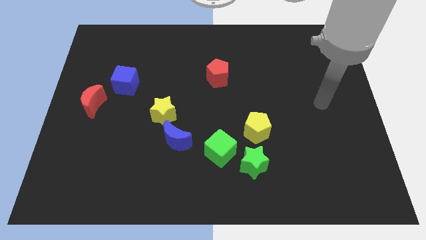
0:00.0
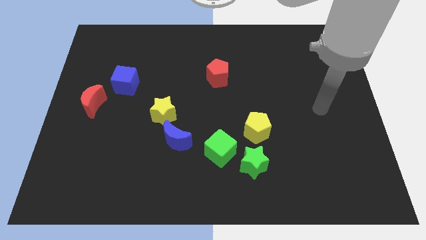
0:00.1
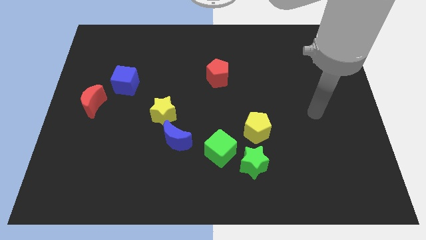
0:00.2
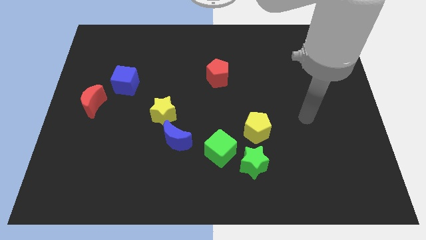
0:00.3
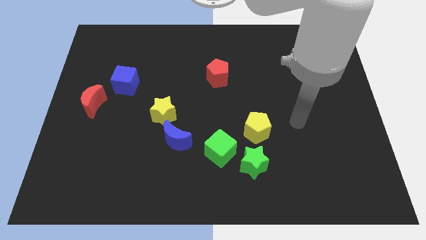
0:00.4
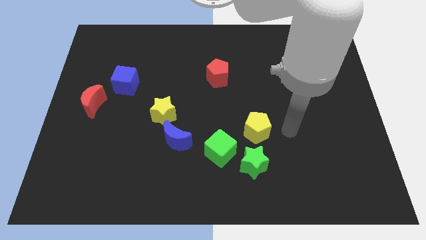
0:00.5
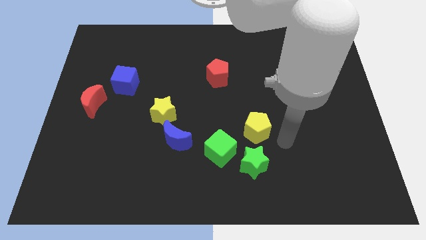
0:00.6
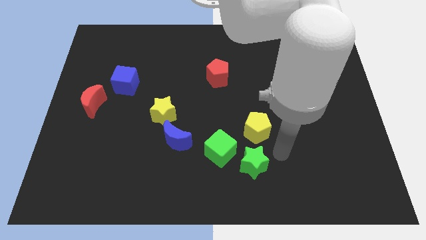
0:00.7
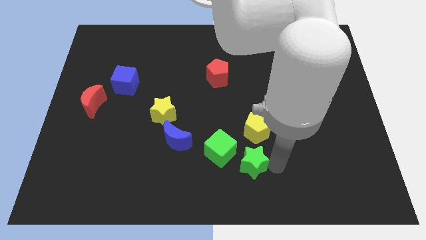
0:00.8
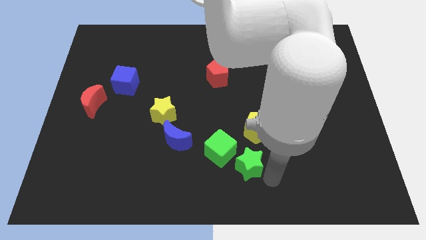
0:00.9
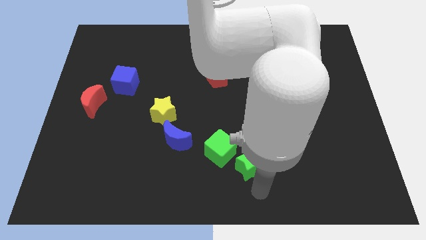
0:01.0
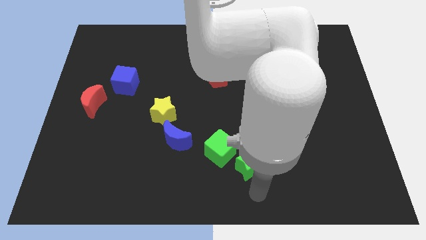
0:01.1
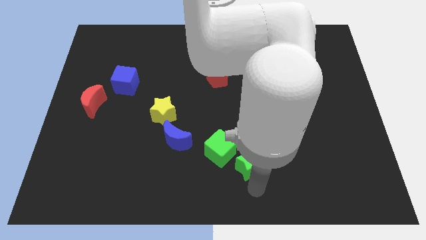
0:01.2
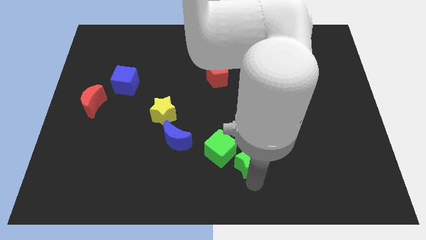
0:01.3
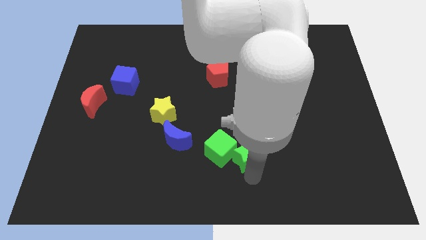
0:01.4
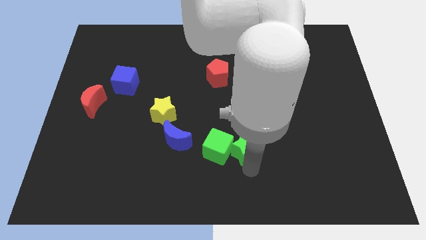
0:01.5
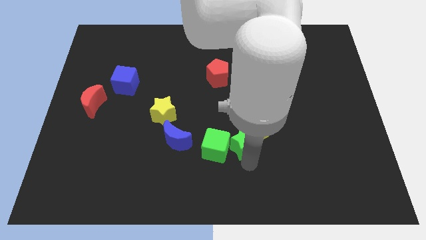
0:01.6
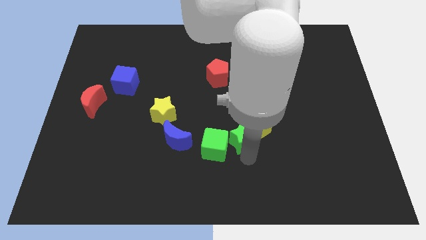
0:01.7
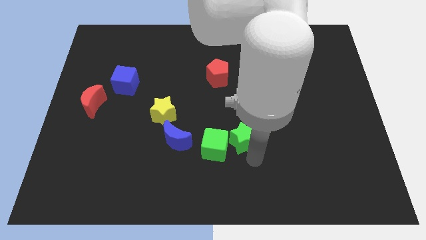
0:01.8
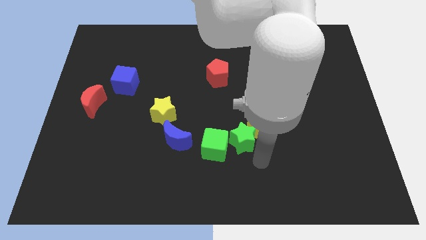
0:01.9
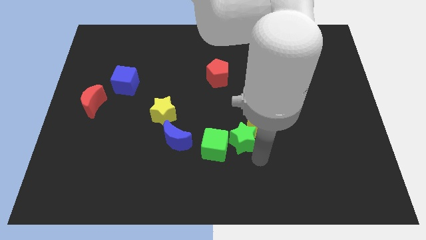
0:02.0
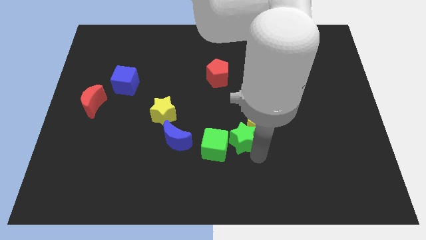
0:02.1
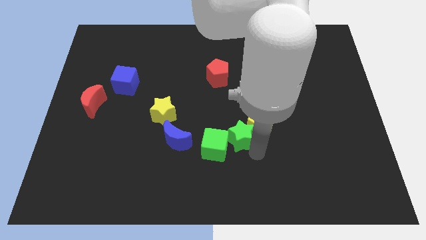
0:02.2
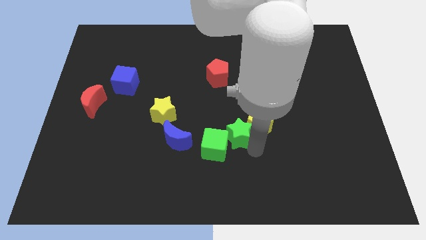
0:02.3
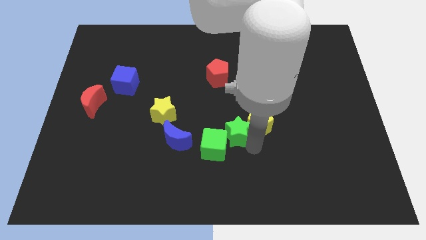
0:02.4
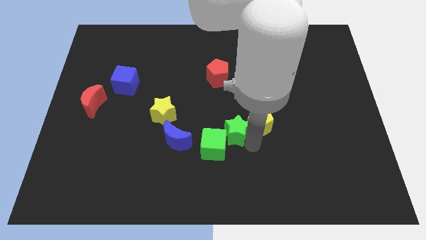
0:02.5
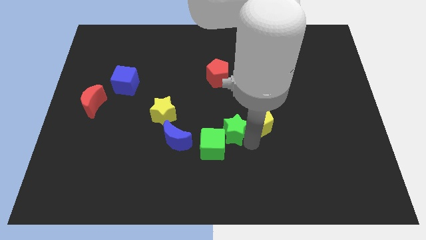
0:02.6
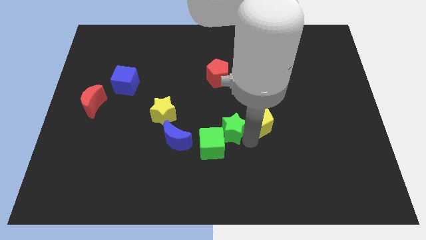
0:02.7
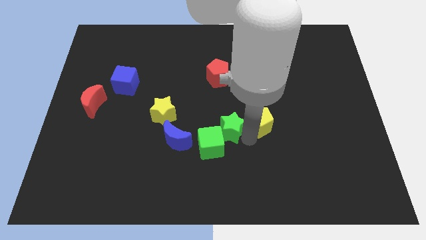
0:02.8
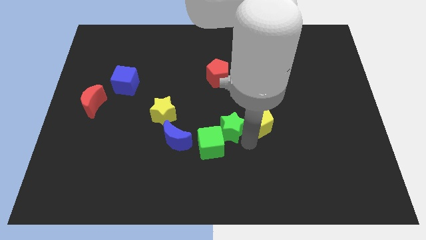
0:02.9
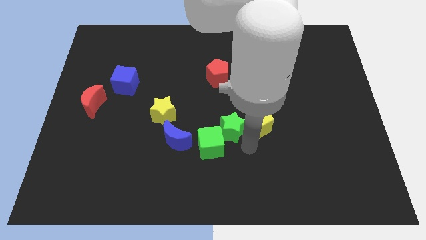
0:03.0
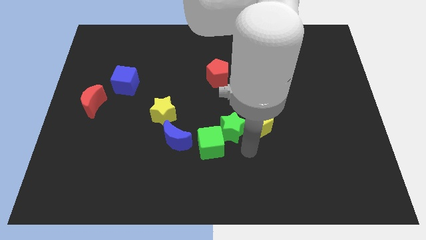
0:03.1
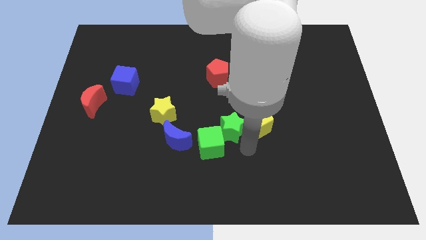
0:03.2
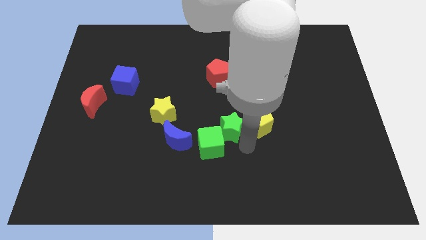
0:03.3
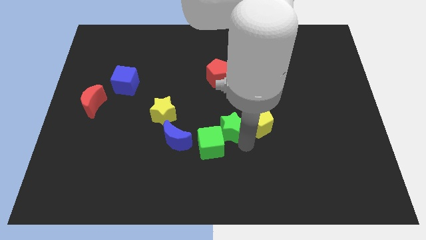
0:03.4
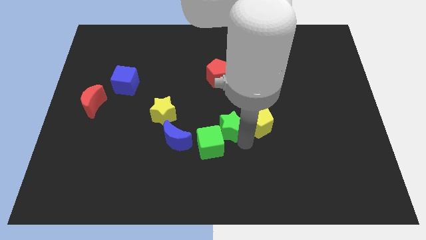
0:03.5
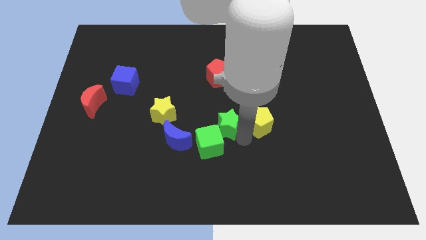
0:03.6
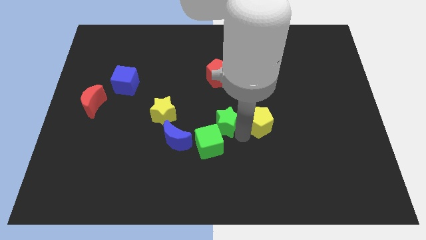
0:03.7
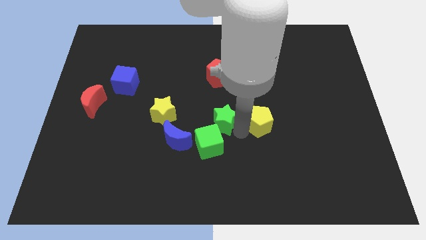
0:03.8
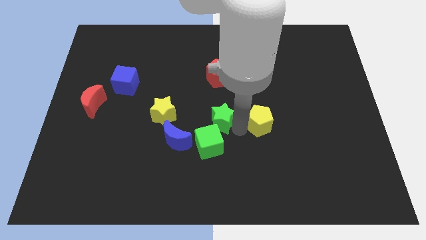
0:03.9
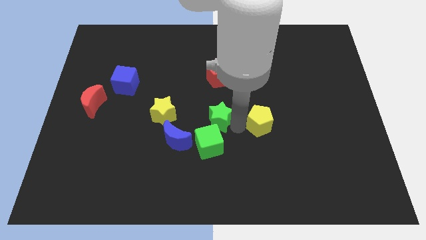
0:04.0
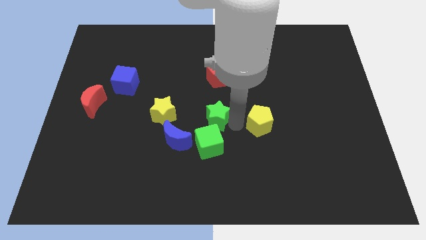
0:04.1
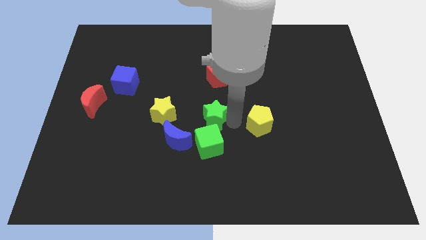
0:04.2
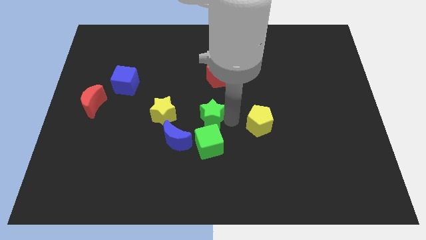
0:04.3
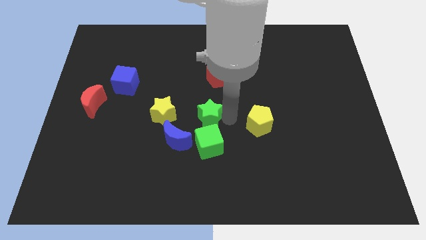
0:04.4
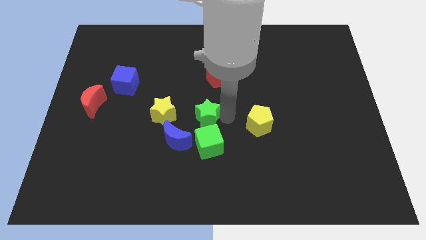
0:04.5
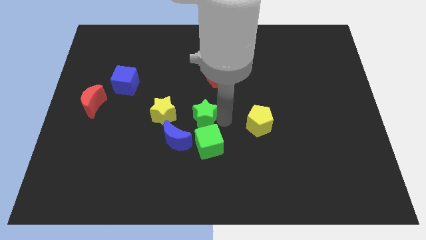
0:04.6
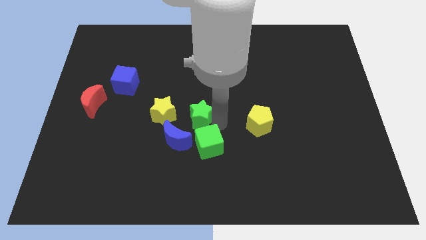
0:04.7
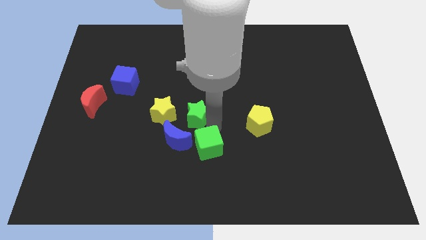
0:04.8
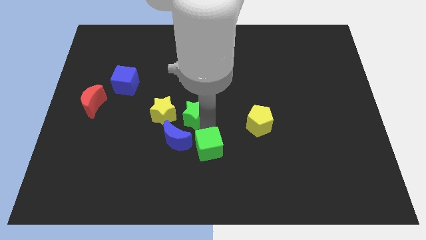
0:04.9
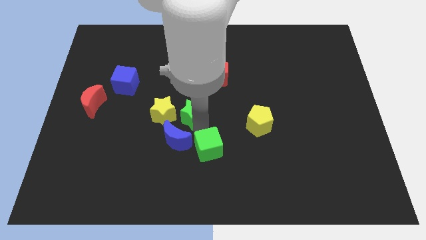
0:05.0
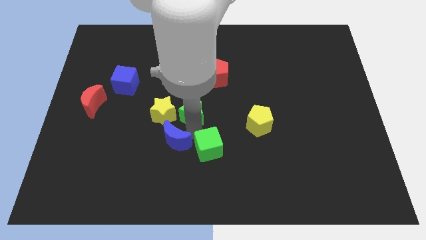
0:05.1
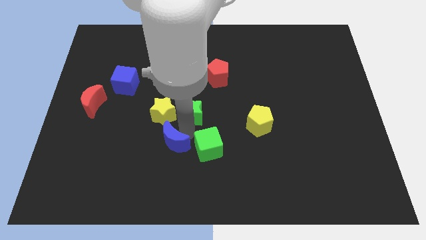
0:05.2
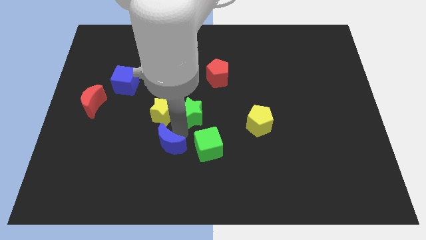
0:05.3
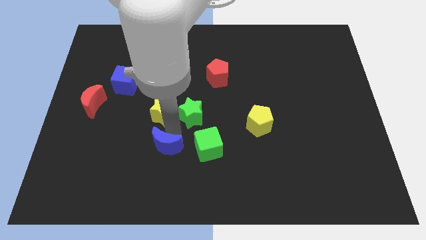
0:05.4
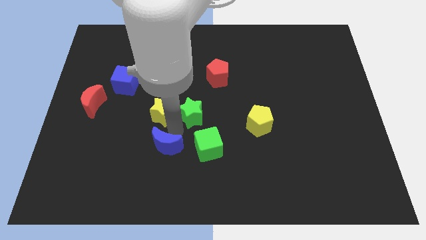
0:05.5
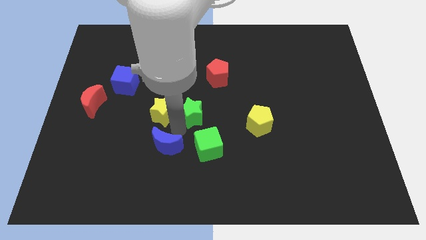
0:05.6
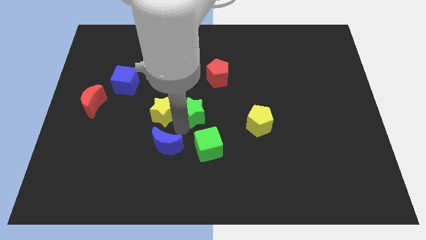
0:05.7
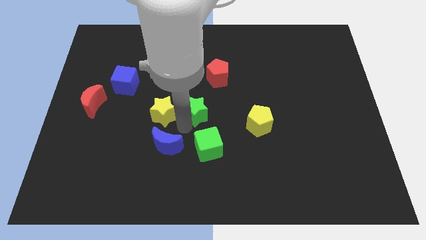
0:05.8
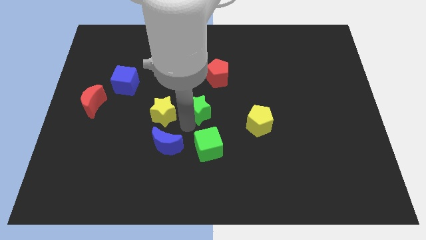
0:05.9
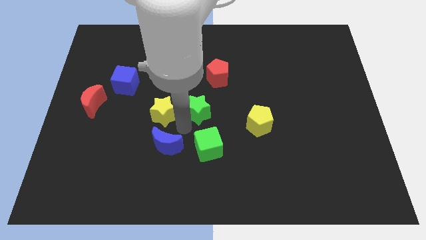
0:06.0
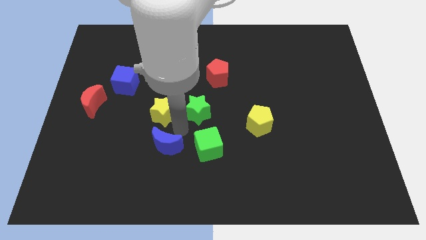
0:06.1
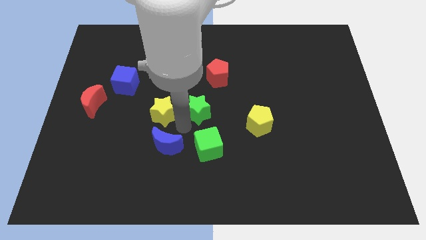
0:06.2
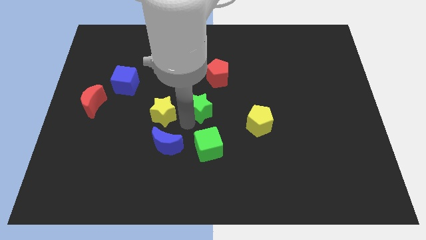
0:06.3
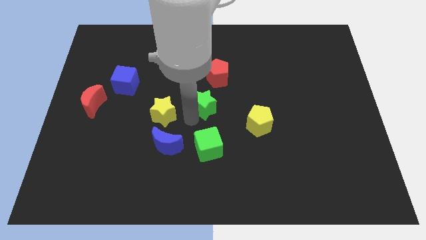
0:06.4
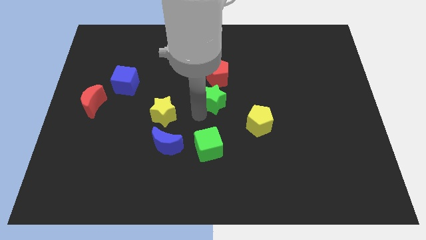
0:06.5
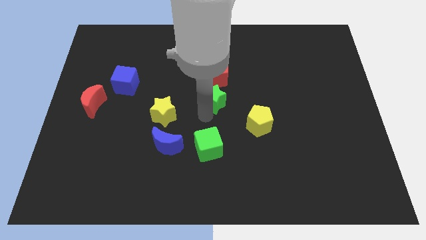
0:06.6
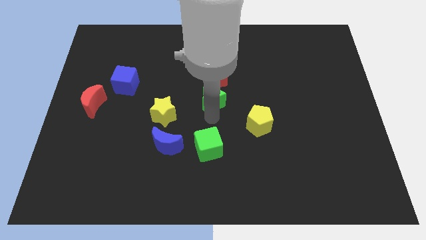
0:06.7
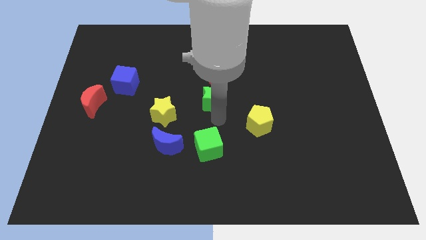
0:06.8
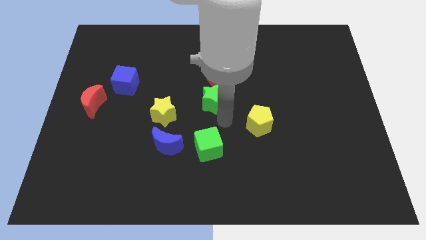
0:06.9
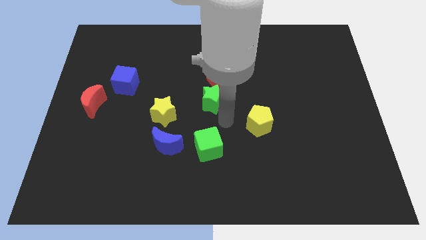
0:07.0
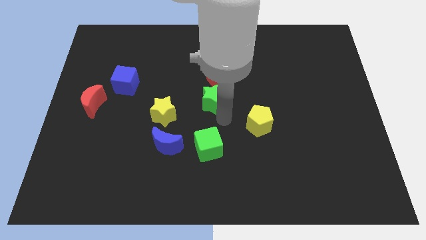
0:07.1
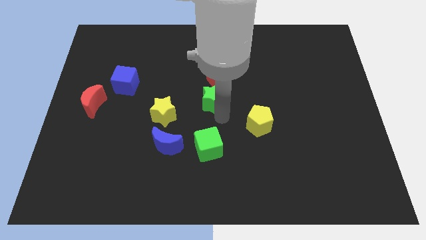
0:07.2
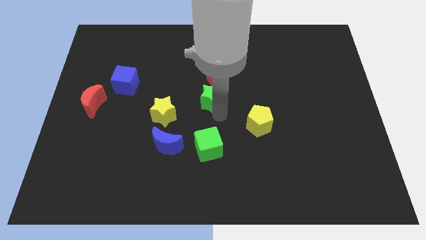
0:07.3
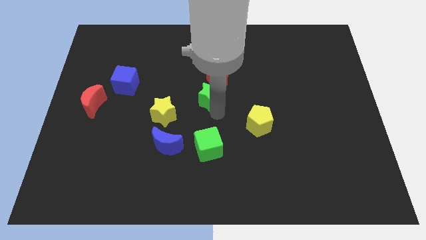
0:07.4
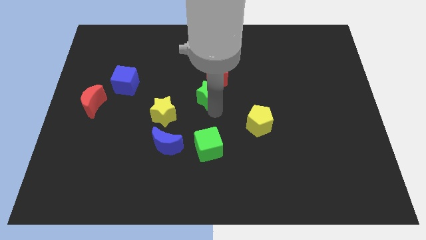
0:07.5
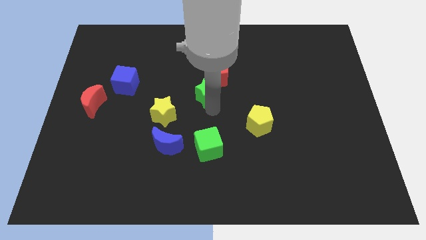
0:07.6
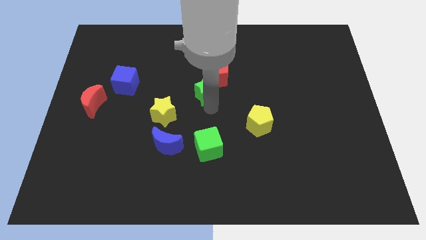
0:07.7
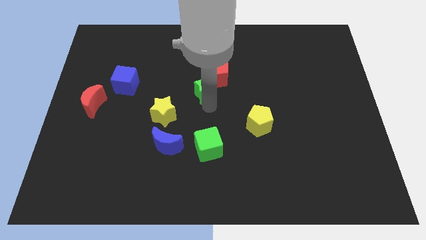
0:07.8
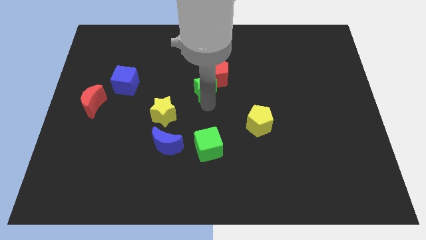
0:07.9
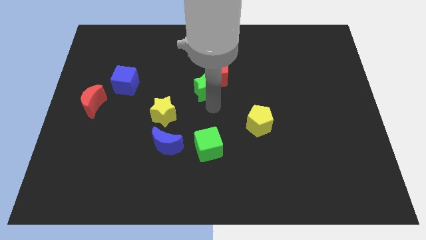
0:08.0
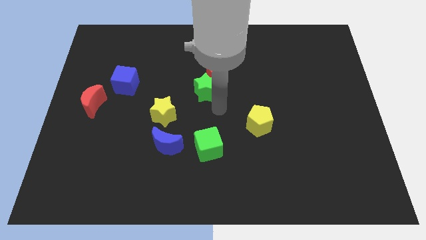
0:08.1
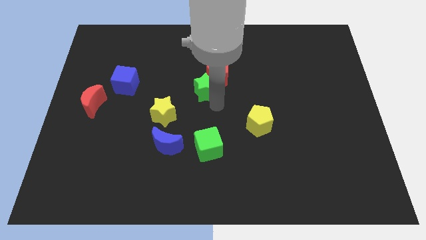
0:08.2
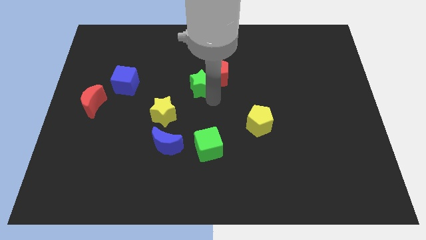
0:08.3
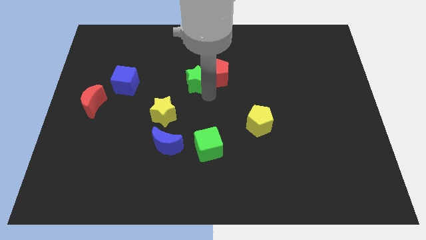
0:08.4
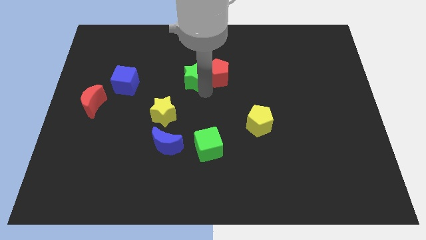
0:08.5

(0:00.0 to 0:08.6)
move the green star to the top left of the red pentagon
